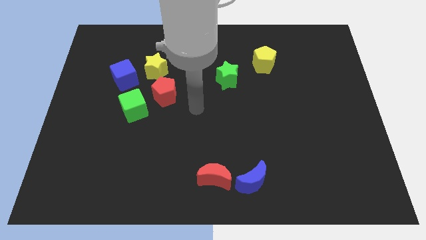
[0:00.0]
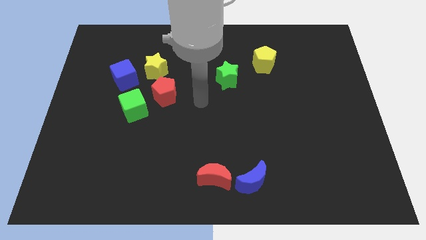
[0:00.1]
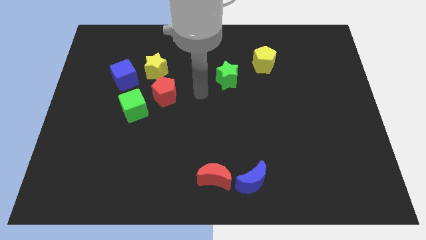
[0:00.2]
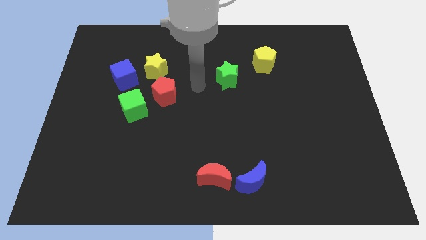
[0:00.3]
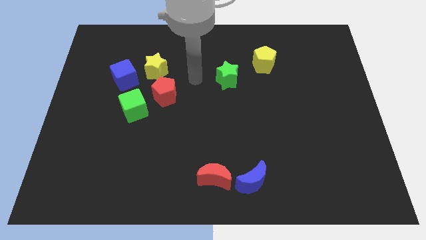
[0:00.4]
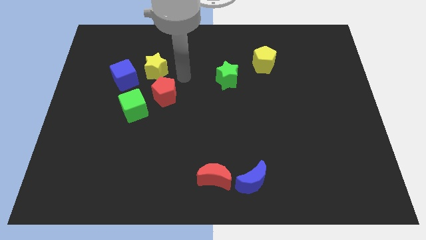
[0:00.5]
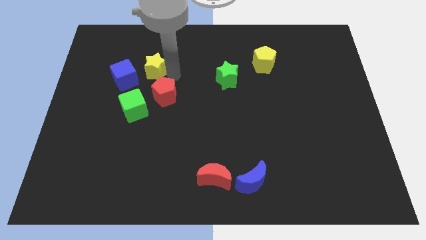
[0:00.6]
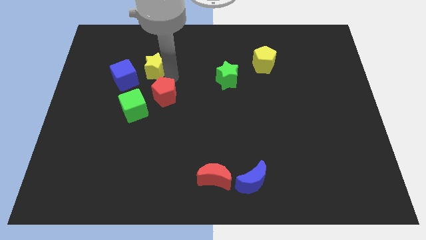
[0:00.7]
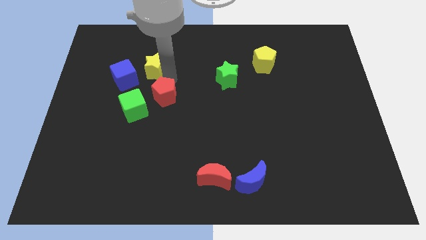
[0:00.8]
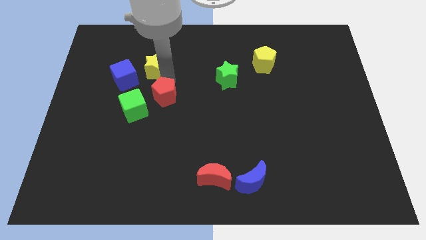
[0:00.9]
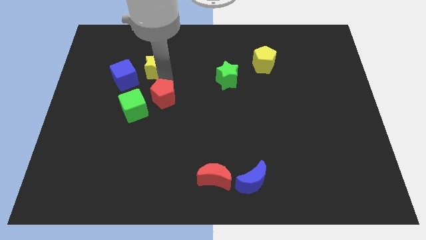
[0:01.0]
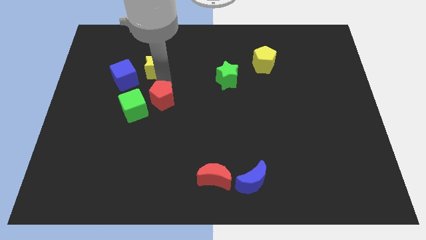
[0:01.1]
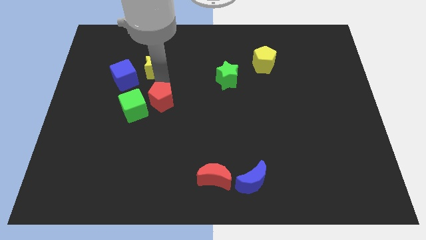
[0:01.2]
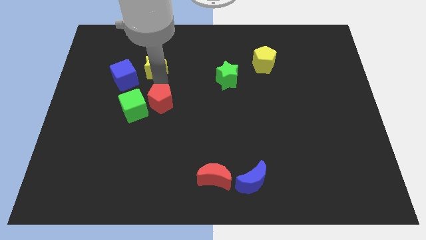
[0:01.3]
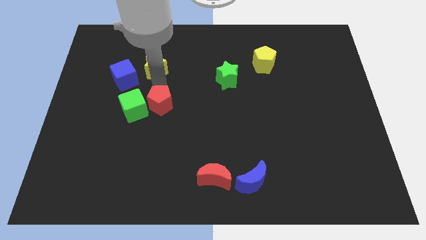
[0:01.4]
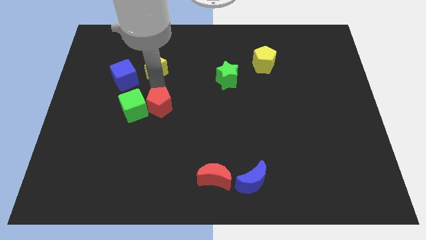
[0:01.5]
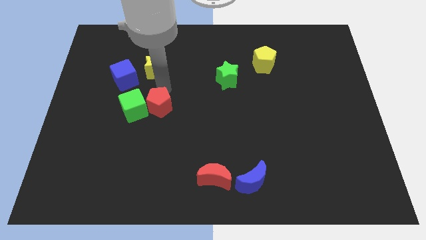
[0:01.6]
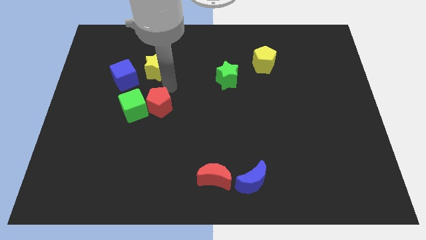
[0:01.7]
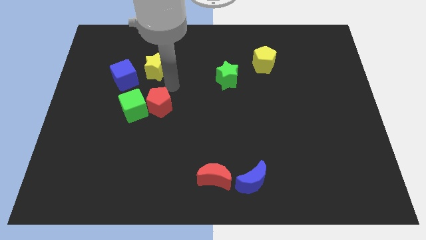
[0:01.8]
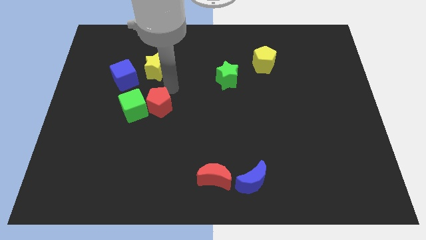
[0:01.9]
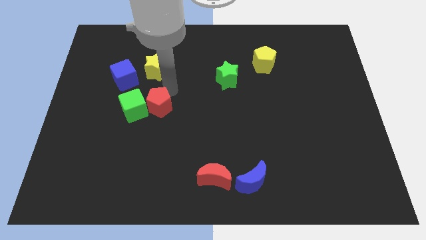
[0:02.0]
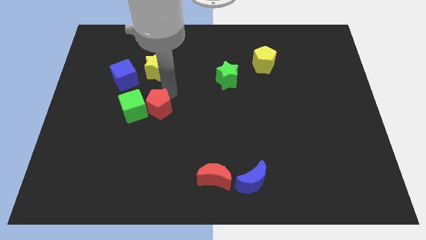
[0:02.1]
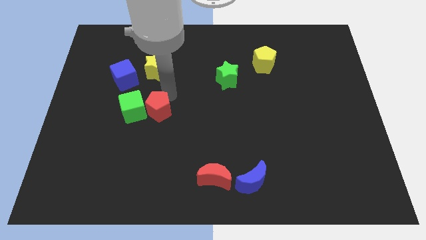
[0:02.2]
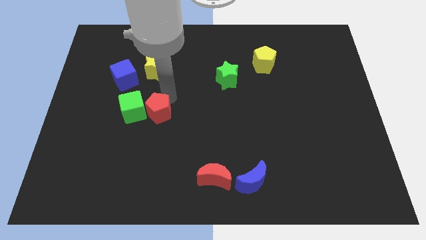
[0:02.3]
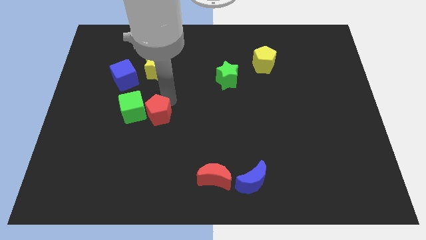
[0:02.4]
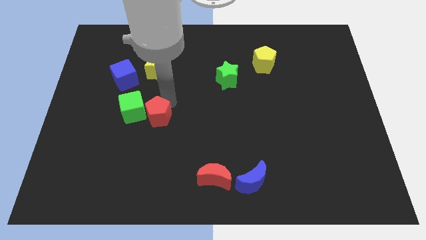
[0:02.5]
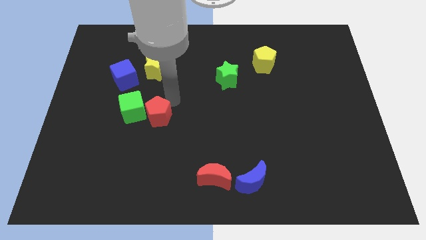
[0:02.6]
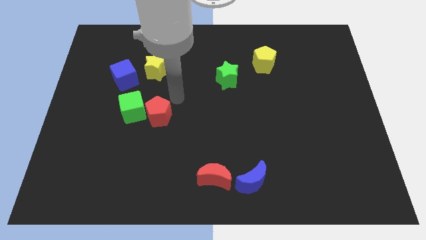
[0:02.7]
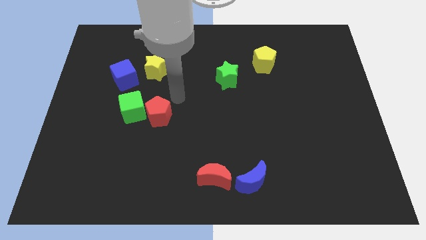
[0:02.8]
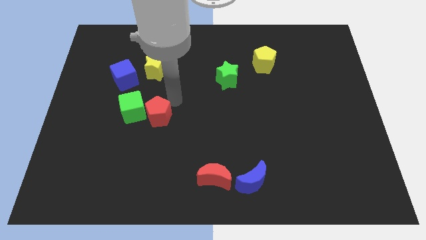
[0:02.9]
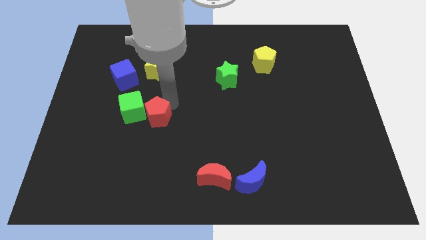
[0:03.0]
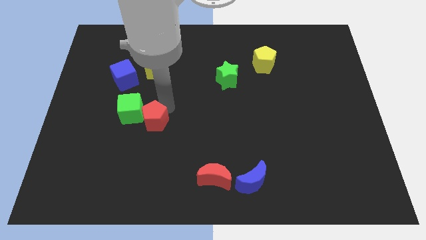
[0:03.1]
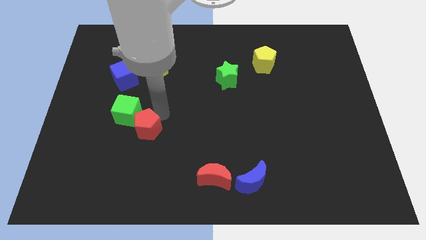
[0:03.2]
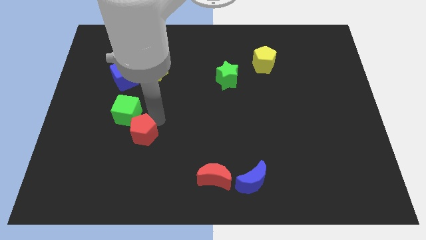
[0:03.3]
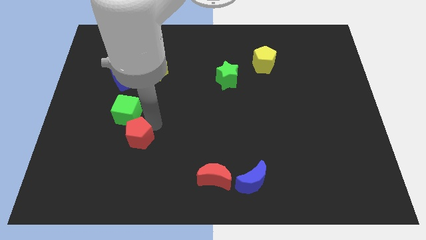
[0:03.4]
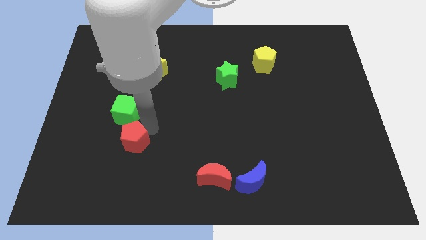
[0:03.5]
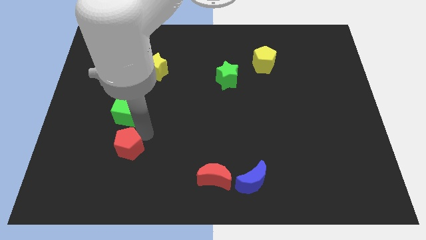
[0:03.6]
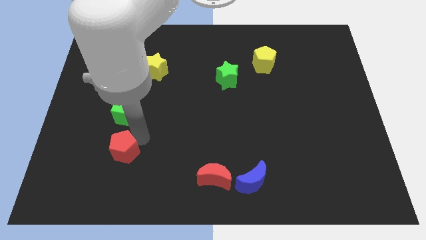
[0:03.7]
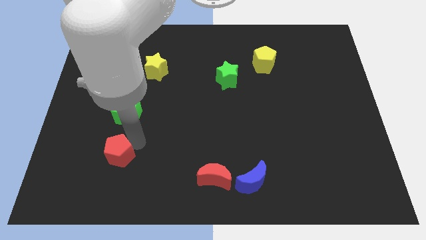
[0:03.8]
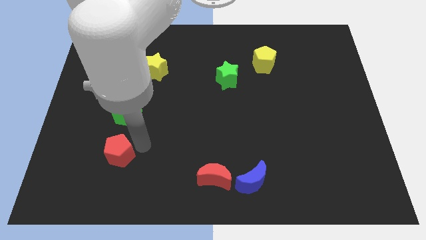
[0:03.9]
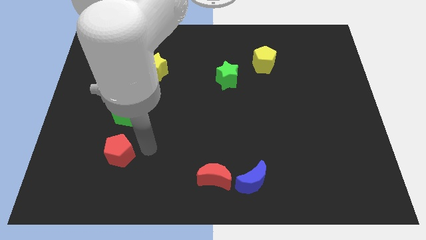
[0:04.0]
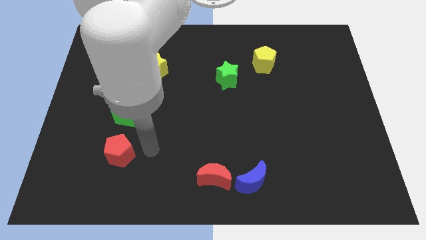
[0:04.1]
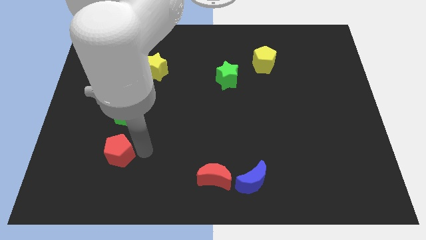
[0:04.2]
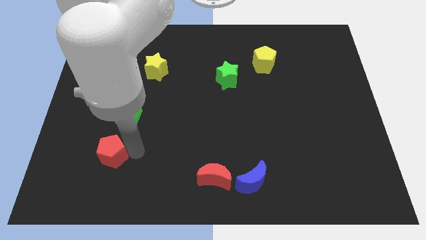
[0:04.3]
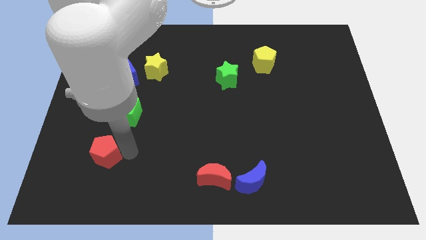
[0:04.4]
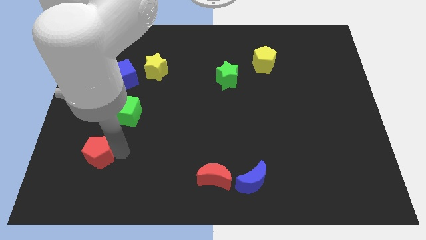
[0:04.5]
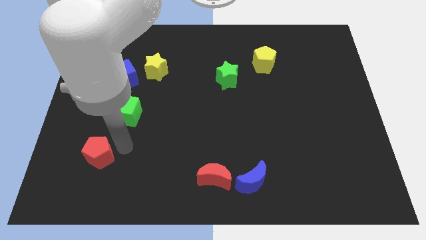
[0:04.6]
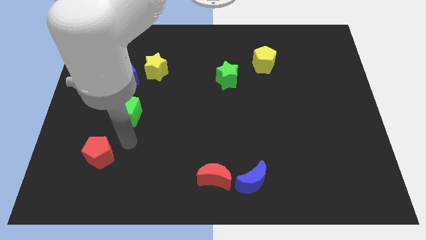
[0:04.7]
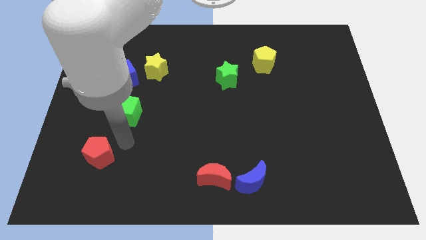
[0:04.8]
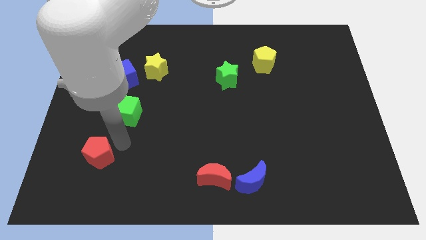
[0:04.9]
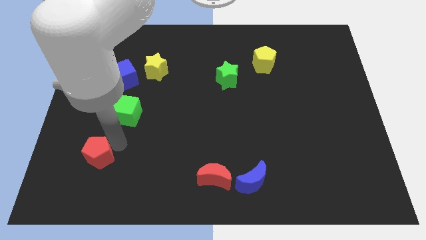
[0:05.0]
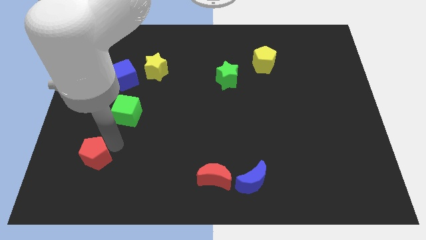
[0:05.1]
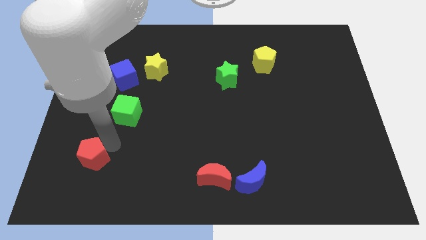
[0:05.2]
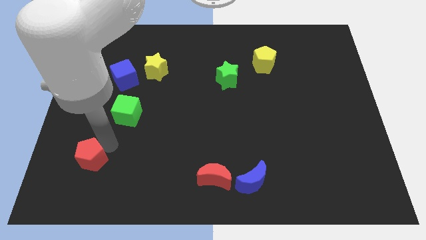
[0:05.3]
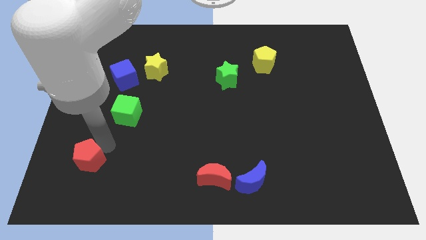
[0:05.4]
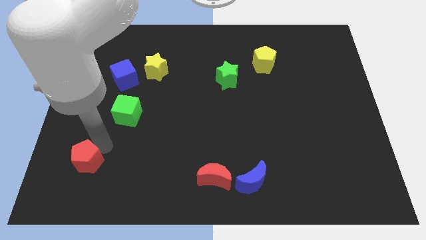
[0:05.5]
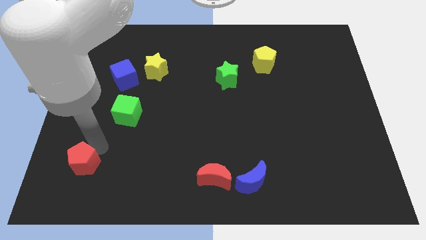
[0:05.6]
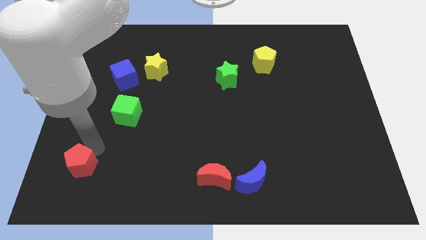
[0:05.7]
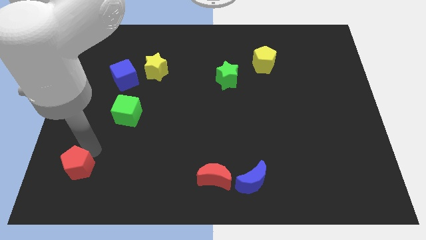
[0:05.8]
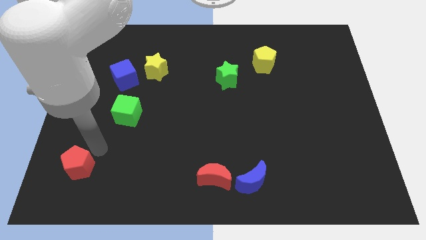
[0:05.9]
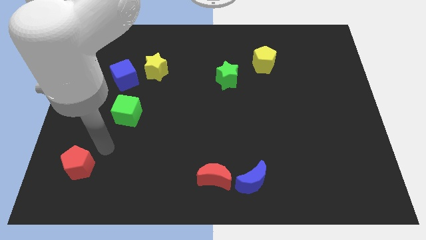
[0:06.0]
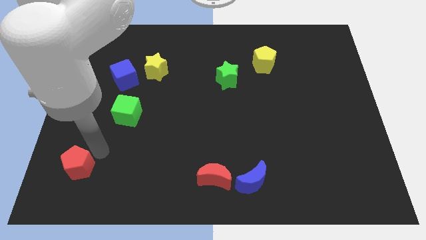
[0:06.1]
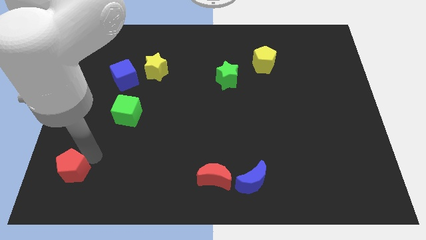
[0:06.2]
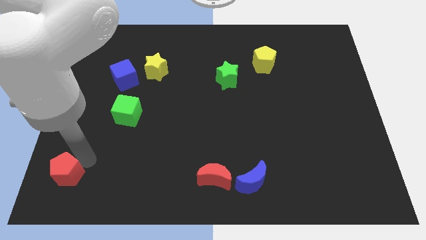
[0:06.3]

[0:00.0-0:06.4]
slide the red pentagon to the lower left corner

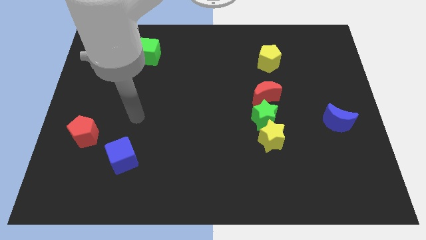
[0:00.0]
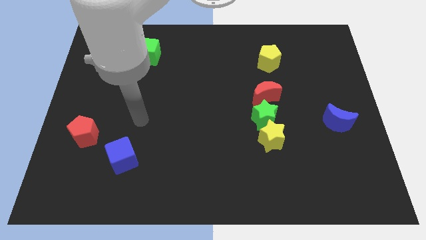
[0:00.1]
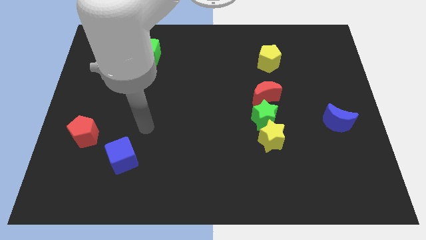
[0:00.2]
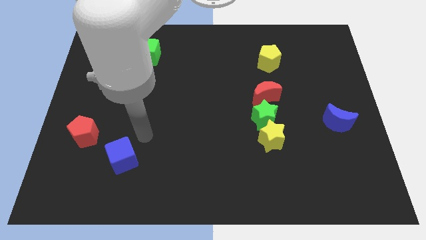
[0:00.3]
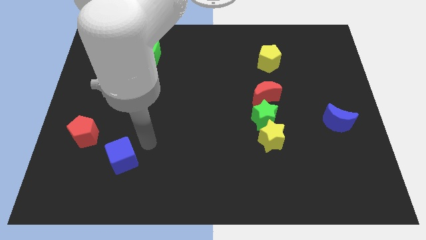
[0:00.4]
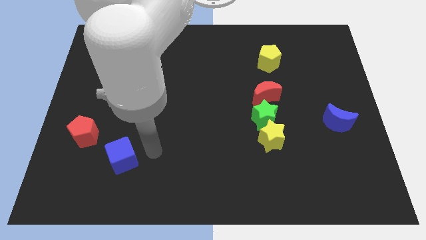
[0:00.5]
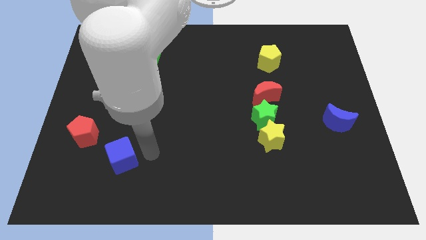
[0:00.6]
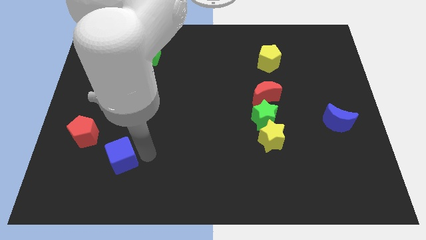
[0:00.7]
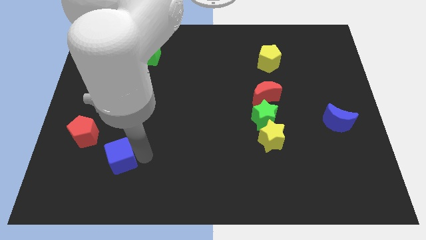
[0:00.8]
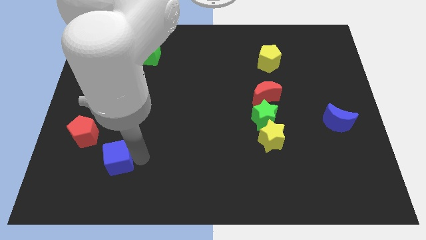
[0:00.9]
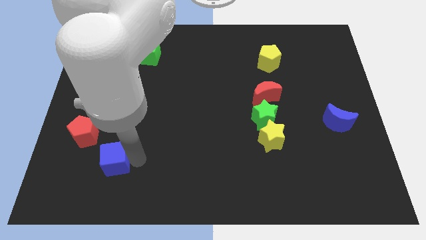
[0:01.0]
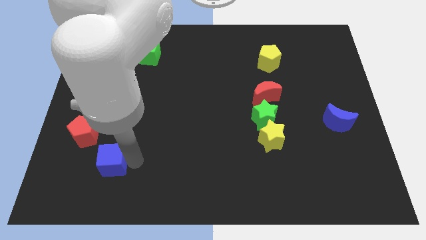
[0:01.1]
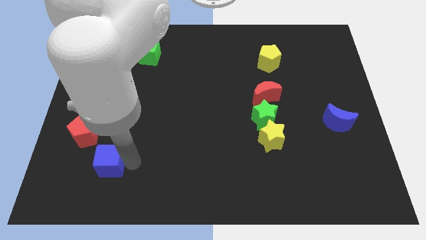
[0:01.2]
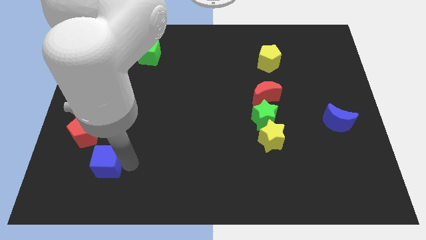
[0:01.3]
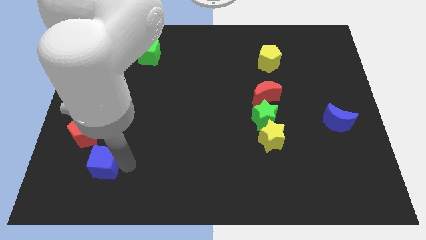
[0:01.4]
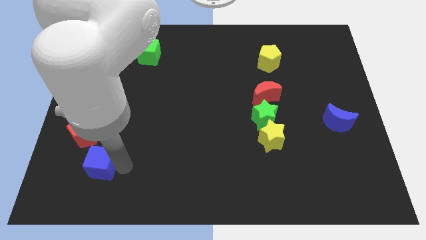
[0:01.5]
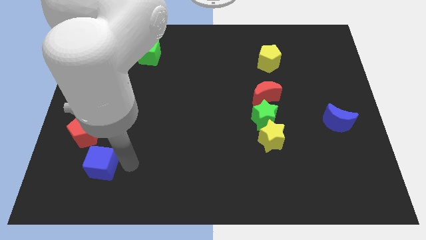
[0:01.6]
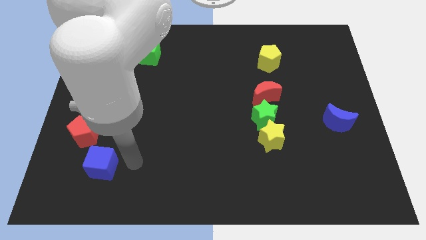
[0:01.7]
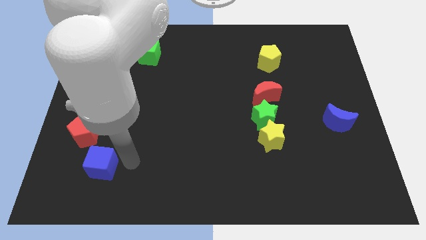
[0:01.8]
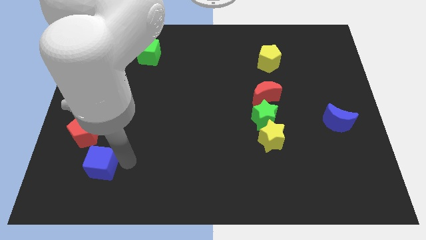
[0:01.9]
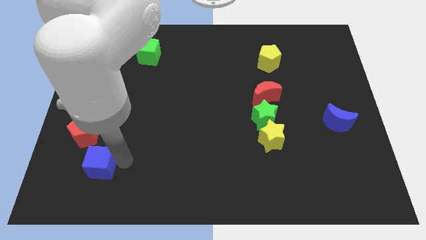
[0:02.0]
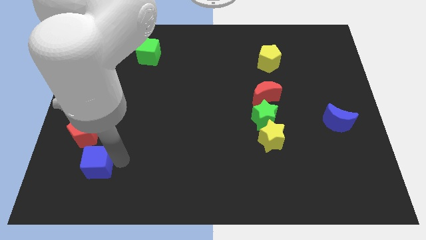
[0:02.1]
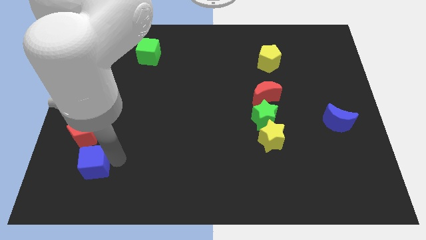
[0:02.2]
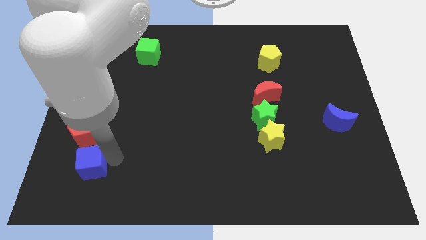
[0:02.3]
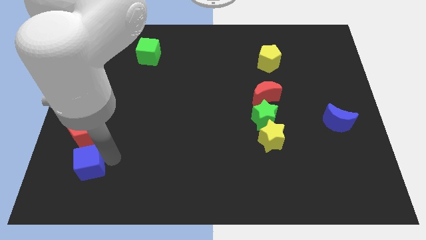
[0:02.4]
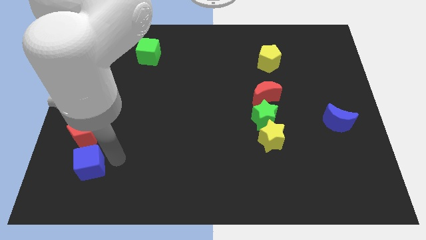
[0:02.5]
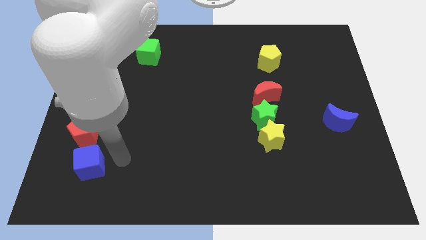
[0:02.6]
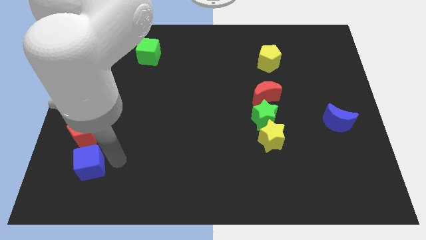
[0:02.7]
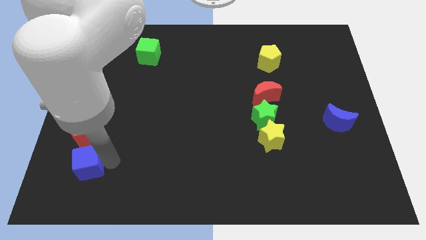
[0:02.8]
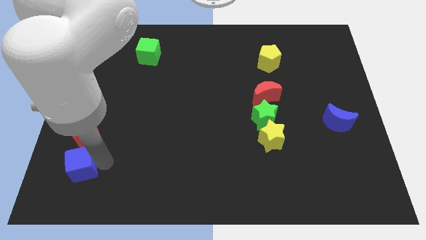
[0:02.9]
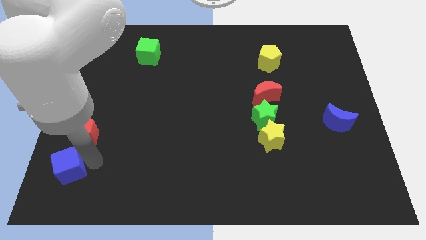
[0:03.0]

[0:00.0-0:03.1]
put the blue cube to the bottom left of the board
